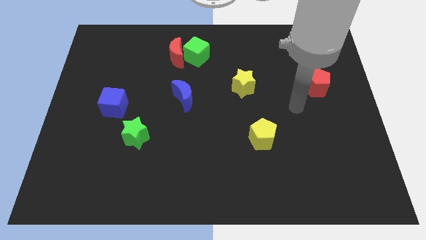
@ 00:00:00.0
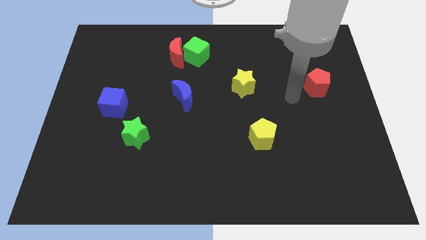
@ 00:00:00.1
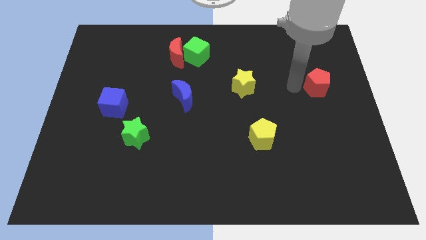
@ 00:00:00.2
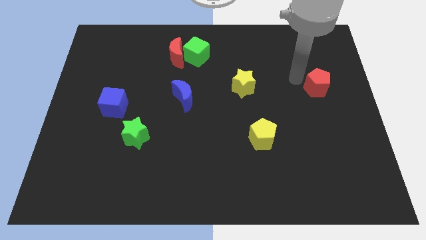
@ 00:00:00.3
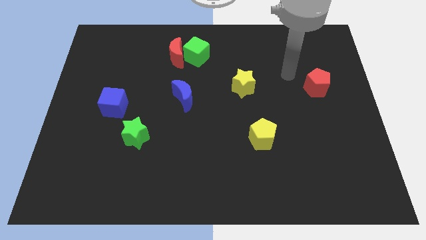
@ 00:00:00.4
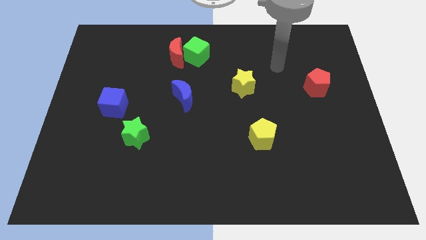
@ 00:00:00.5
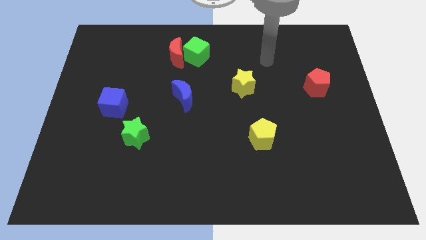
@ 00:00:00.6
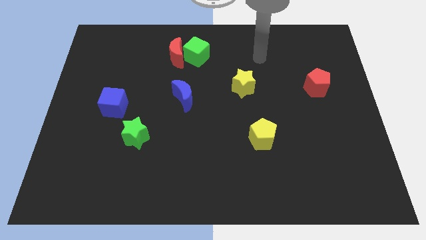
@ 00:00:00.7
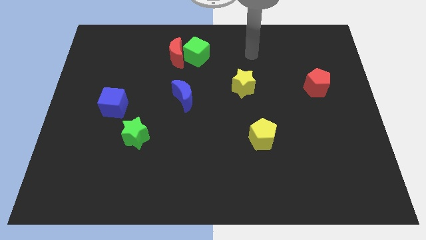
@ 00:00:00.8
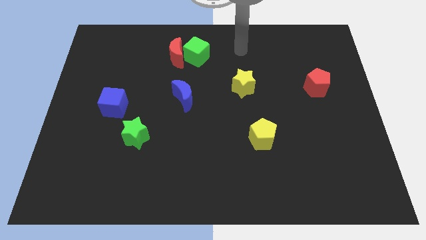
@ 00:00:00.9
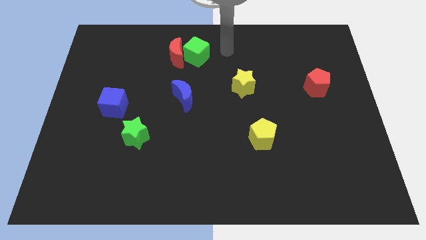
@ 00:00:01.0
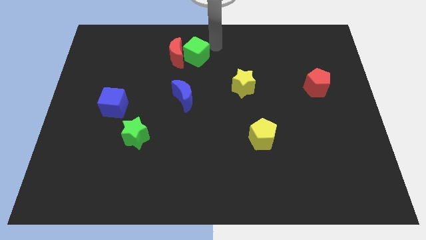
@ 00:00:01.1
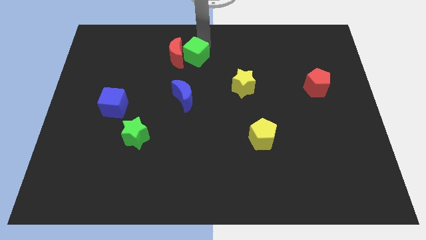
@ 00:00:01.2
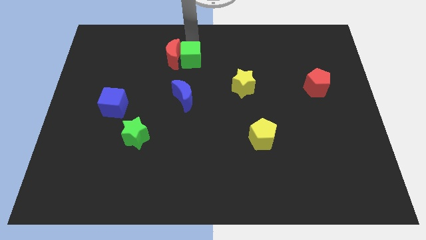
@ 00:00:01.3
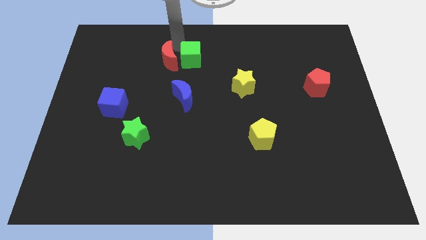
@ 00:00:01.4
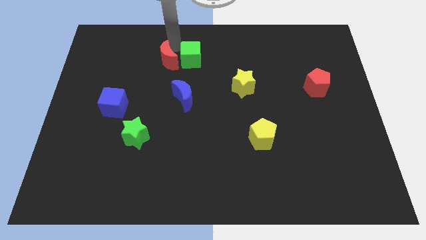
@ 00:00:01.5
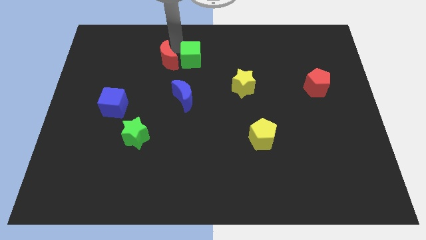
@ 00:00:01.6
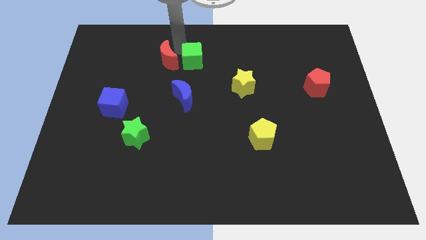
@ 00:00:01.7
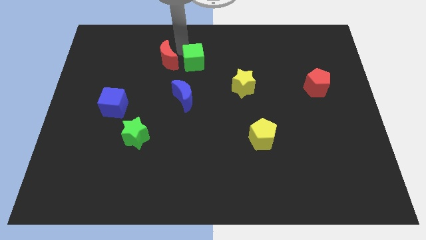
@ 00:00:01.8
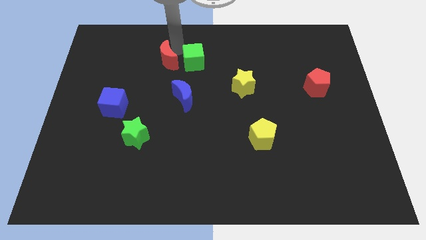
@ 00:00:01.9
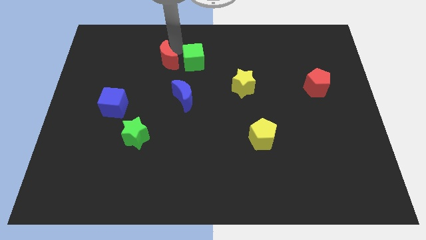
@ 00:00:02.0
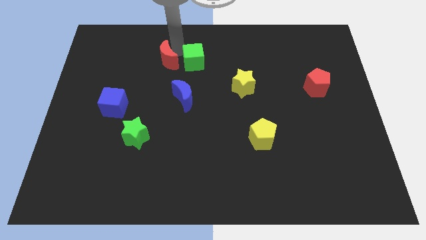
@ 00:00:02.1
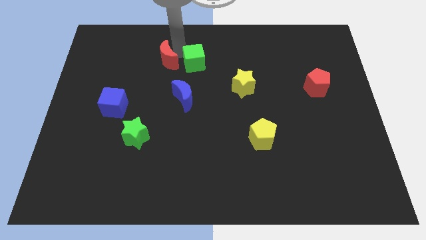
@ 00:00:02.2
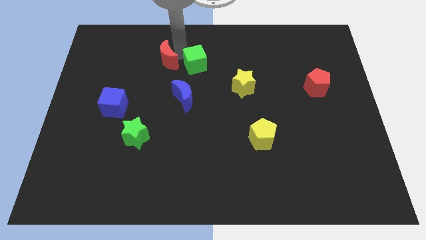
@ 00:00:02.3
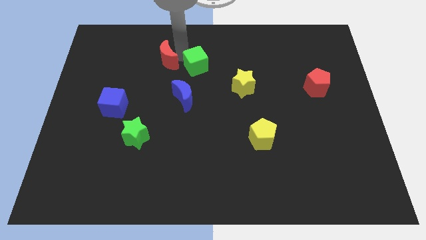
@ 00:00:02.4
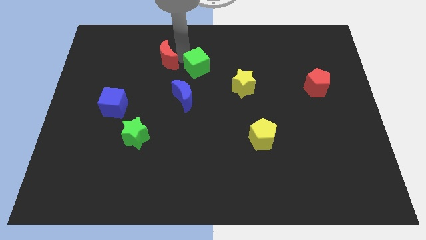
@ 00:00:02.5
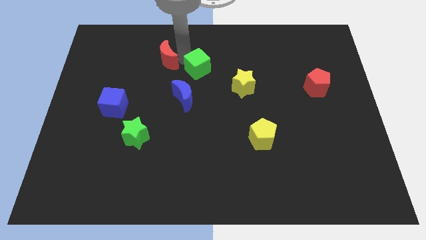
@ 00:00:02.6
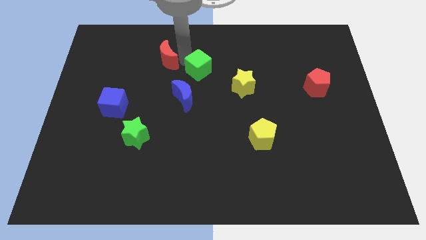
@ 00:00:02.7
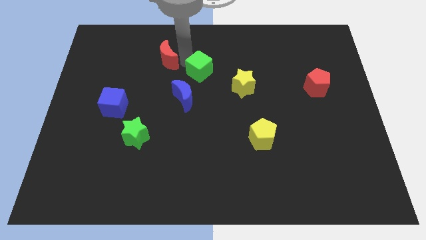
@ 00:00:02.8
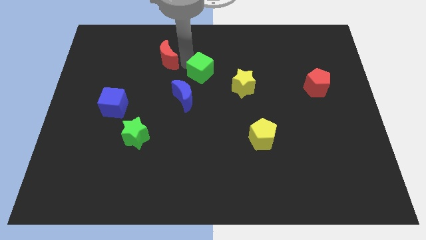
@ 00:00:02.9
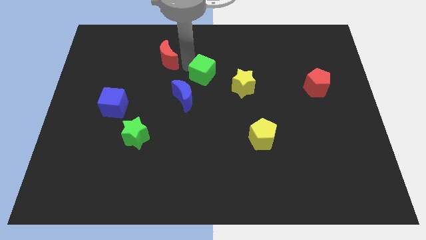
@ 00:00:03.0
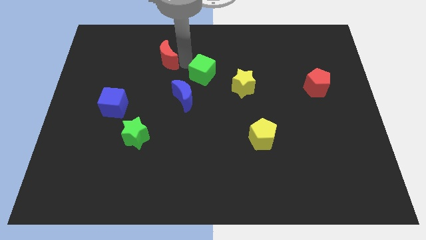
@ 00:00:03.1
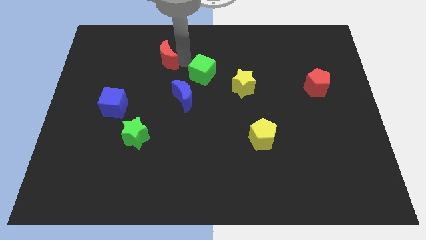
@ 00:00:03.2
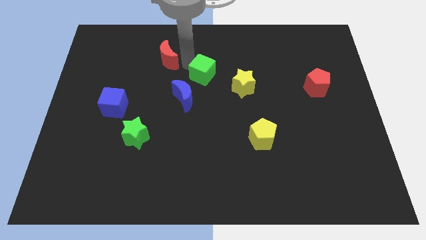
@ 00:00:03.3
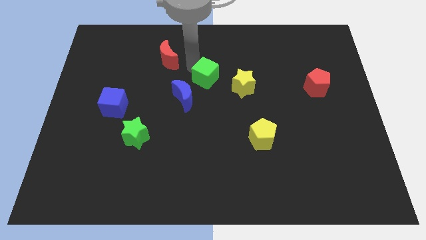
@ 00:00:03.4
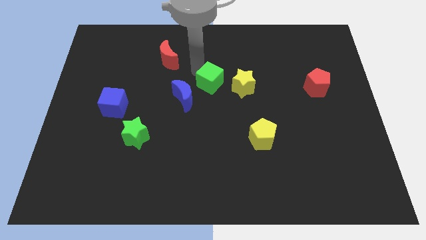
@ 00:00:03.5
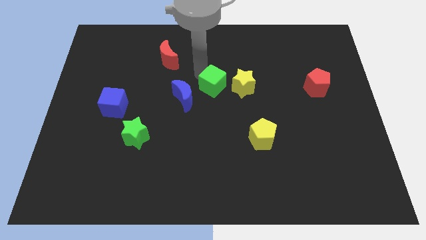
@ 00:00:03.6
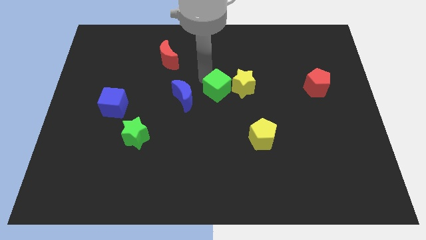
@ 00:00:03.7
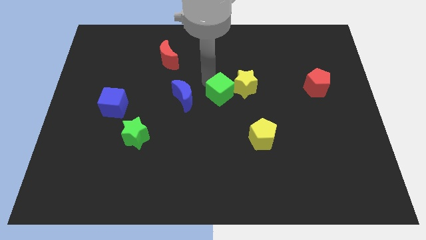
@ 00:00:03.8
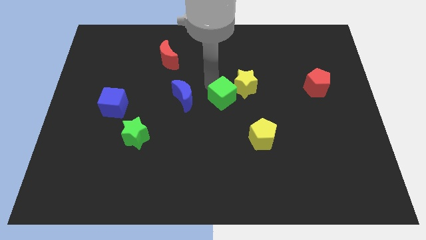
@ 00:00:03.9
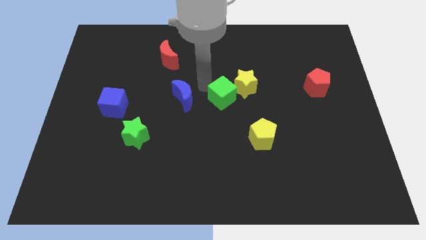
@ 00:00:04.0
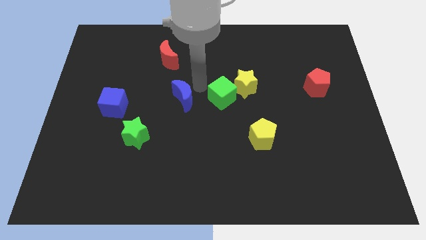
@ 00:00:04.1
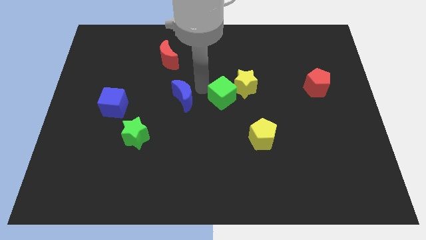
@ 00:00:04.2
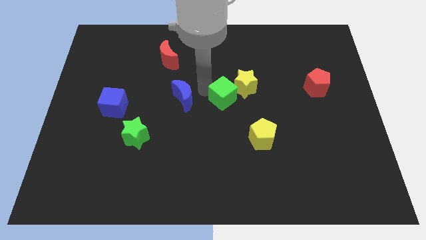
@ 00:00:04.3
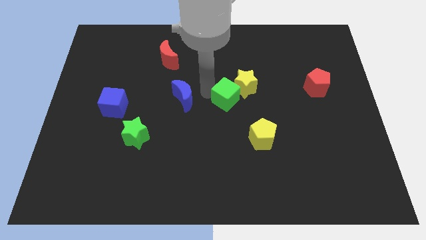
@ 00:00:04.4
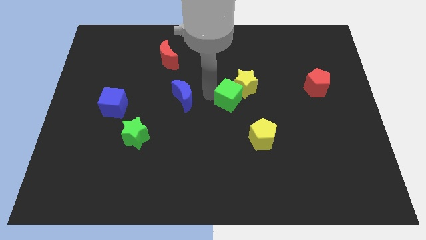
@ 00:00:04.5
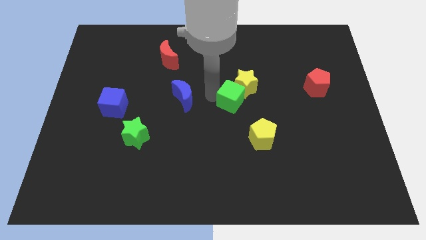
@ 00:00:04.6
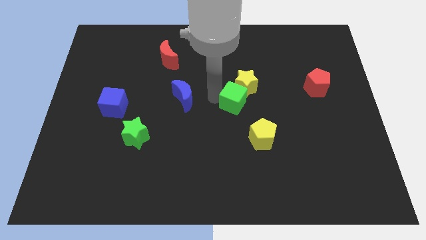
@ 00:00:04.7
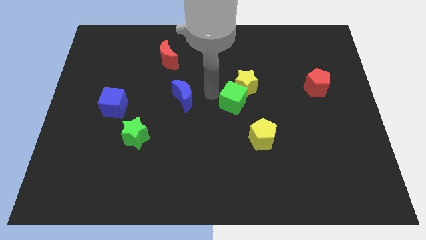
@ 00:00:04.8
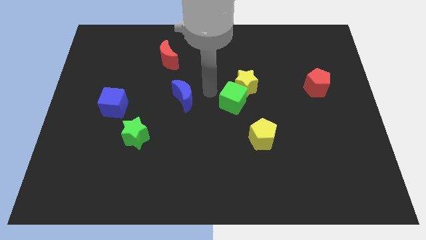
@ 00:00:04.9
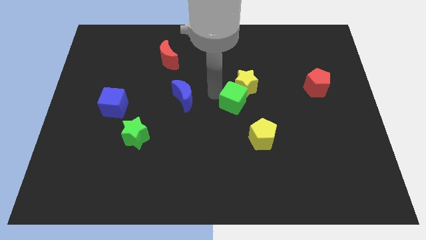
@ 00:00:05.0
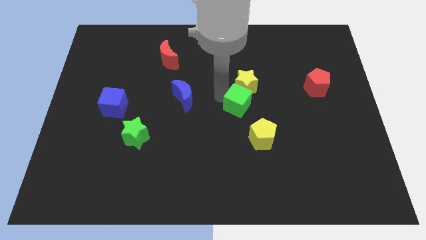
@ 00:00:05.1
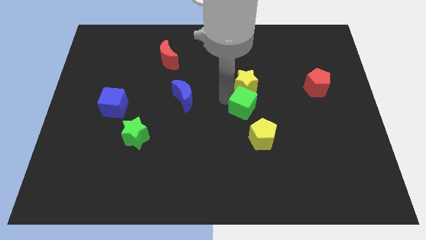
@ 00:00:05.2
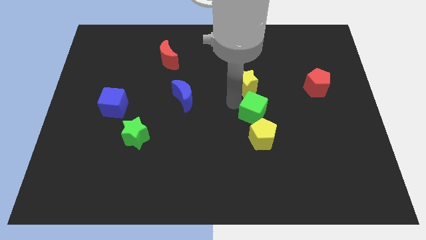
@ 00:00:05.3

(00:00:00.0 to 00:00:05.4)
push the green cube downwards and right

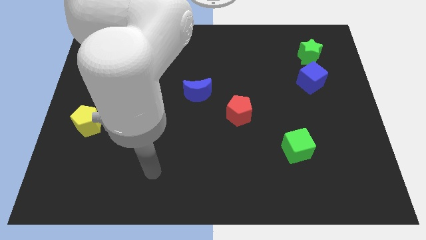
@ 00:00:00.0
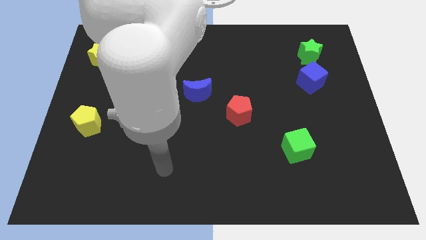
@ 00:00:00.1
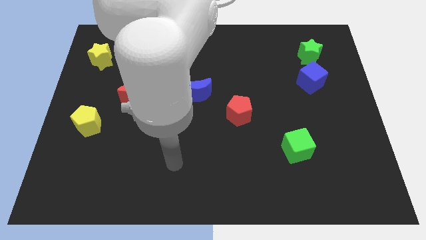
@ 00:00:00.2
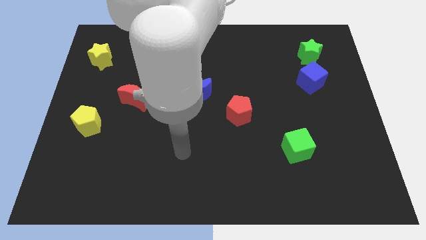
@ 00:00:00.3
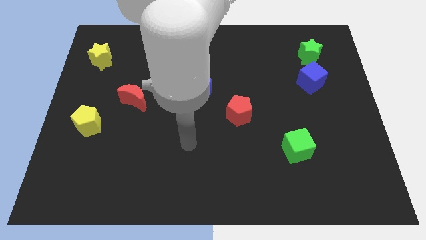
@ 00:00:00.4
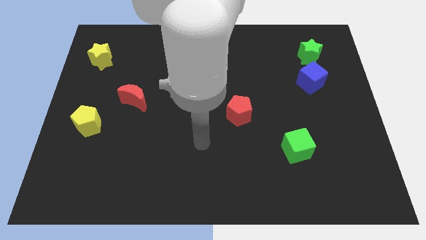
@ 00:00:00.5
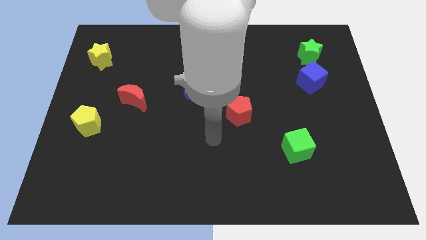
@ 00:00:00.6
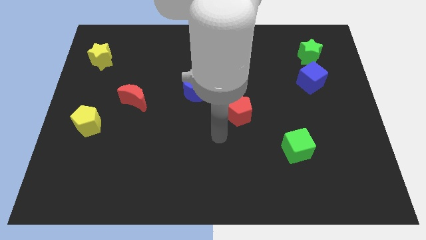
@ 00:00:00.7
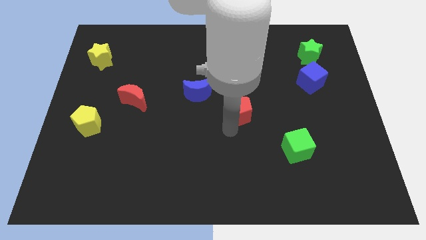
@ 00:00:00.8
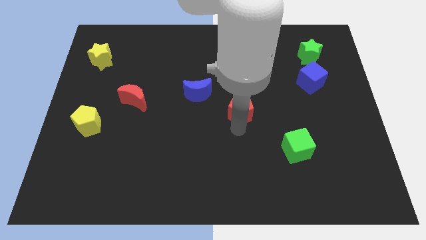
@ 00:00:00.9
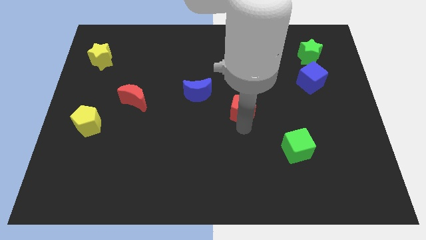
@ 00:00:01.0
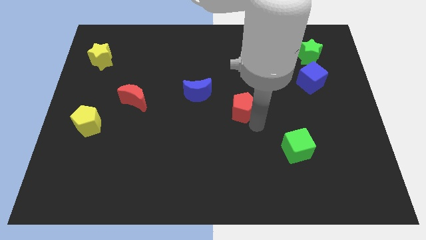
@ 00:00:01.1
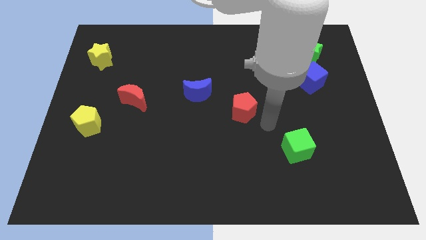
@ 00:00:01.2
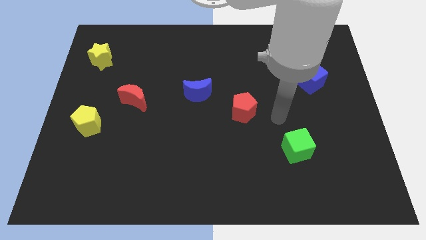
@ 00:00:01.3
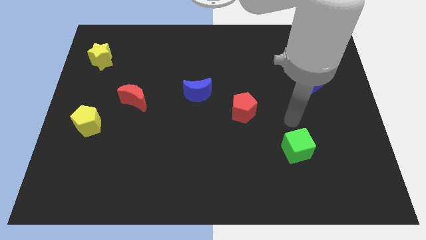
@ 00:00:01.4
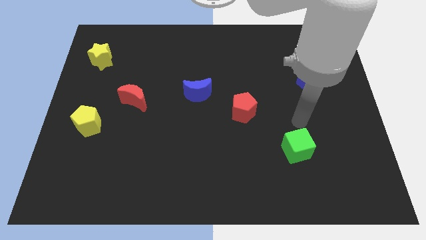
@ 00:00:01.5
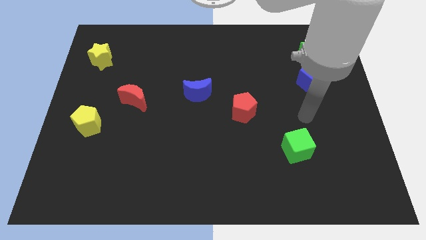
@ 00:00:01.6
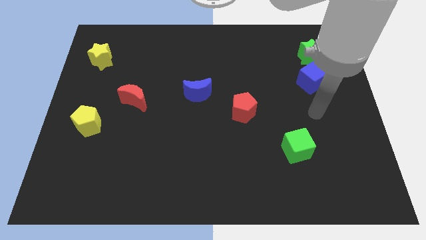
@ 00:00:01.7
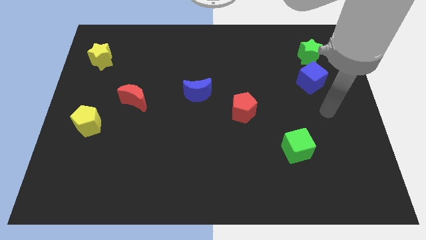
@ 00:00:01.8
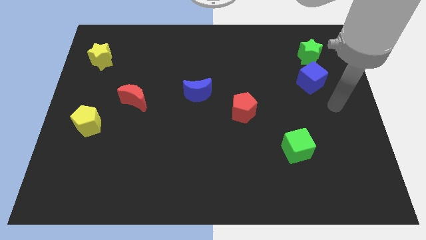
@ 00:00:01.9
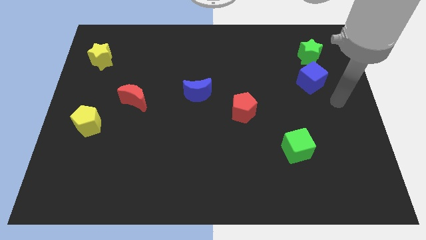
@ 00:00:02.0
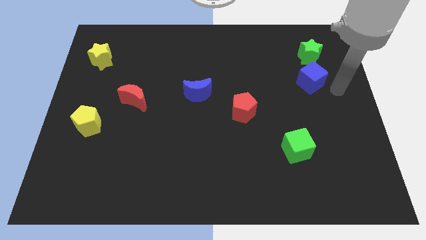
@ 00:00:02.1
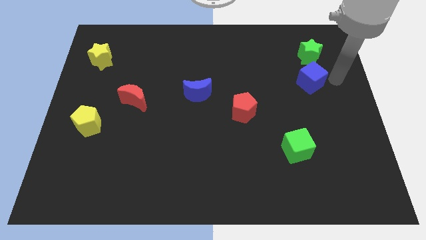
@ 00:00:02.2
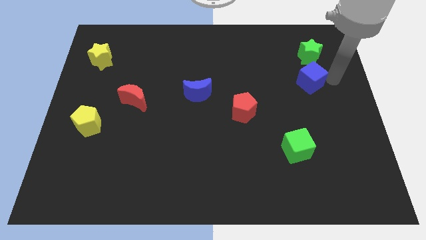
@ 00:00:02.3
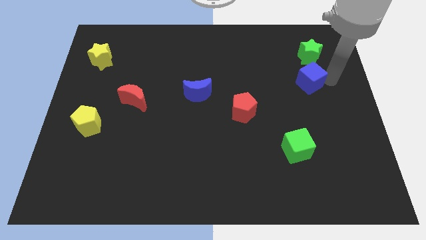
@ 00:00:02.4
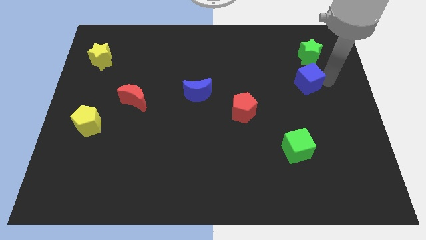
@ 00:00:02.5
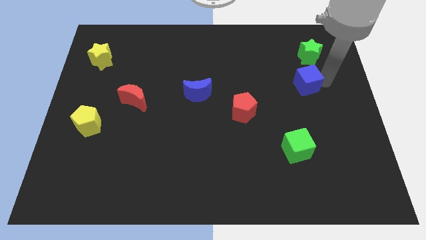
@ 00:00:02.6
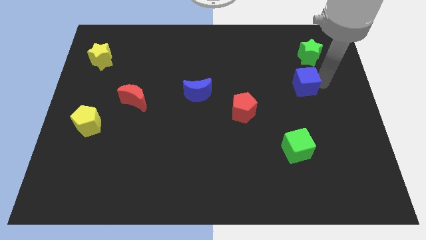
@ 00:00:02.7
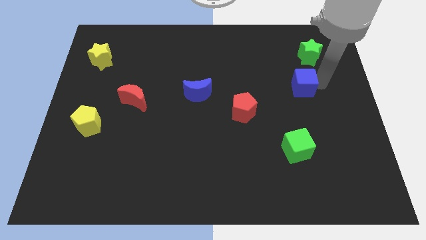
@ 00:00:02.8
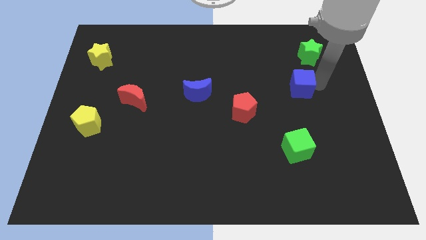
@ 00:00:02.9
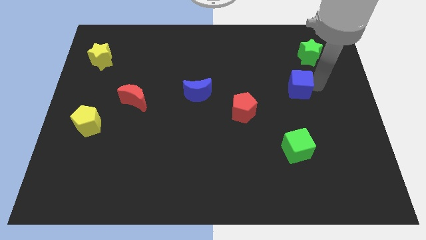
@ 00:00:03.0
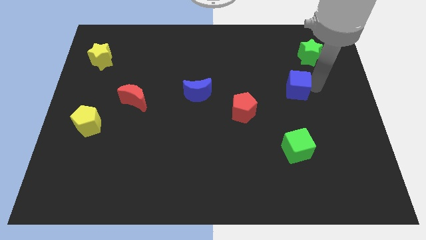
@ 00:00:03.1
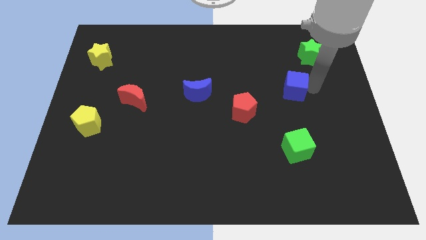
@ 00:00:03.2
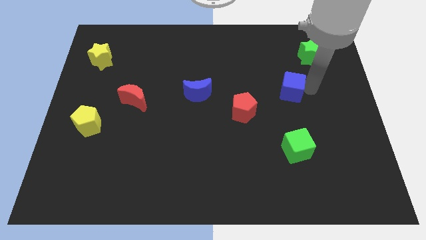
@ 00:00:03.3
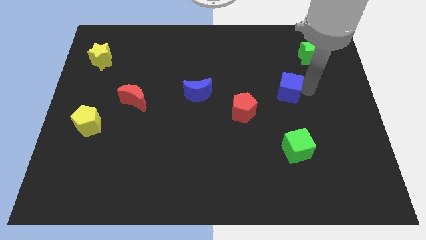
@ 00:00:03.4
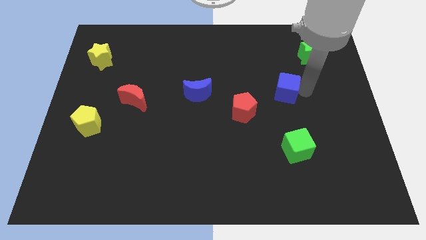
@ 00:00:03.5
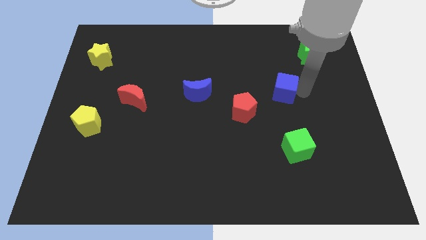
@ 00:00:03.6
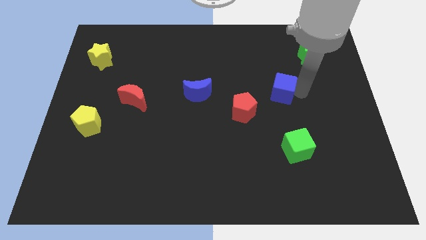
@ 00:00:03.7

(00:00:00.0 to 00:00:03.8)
slightly slide the blue cube to the left
